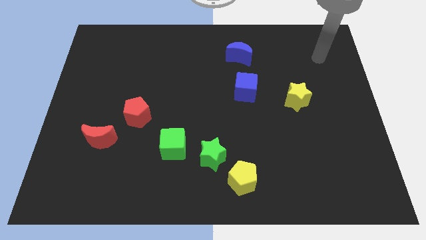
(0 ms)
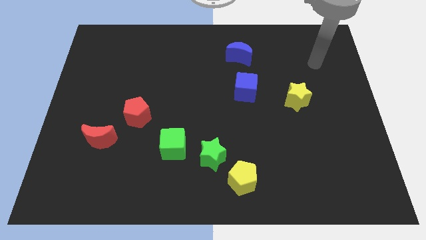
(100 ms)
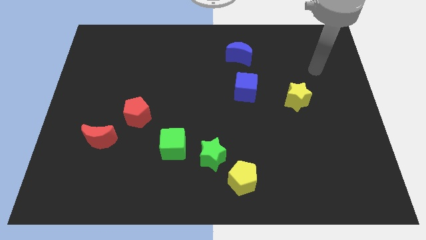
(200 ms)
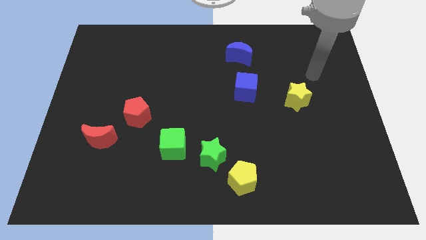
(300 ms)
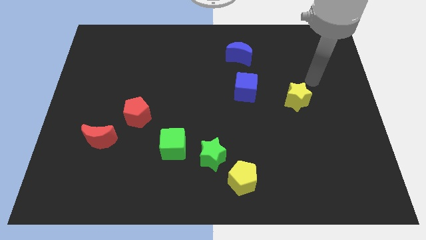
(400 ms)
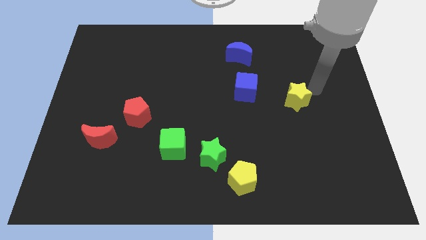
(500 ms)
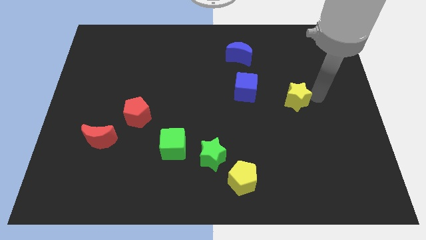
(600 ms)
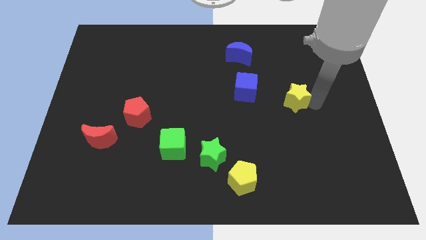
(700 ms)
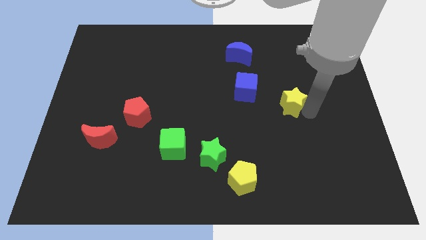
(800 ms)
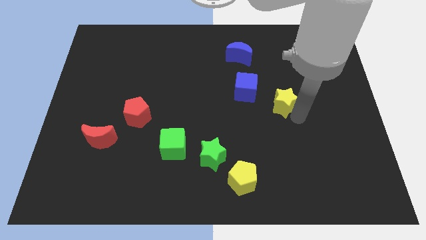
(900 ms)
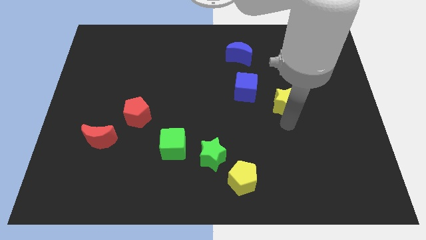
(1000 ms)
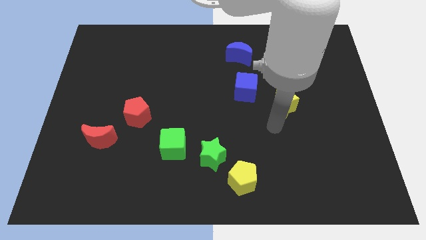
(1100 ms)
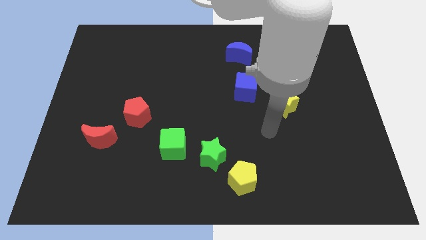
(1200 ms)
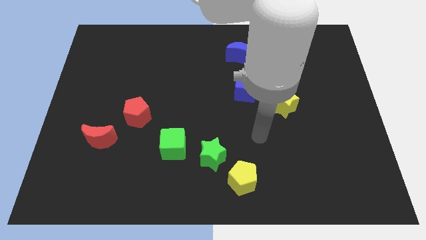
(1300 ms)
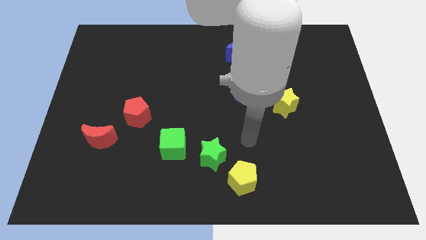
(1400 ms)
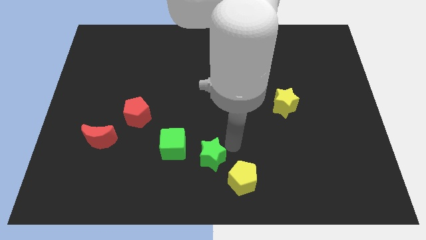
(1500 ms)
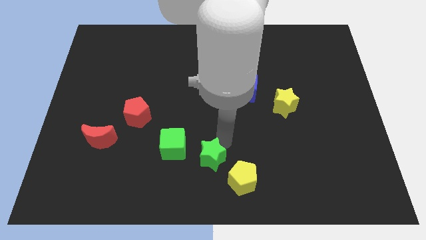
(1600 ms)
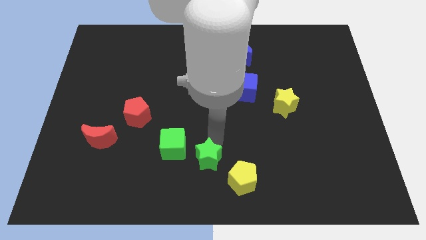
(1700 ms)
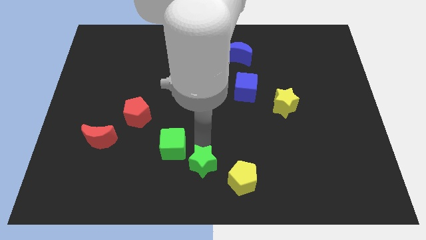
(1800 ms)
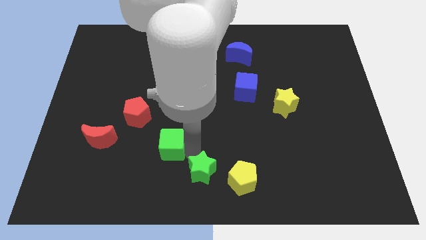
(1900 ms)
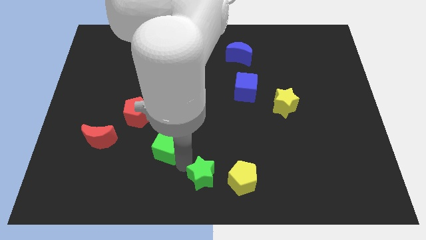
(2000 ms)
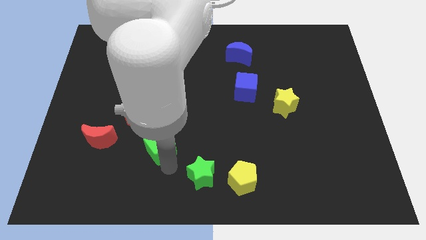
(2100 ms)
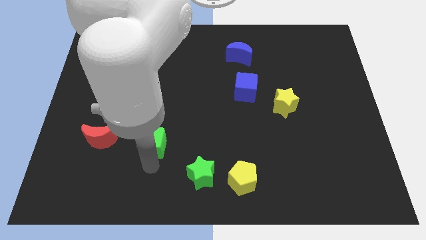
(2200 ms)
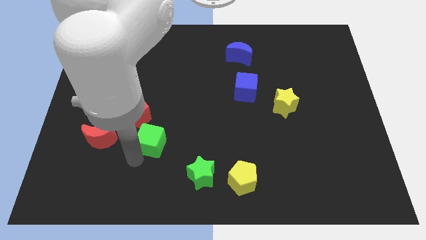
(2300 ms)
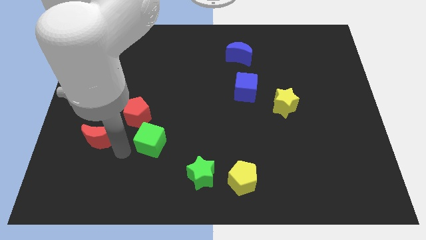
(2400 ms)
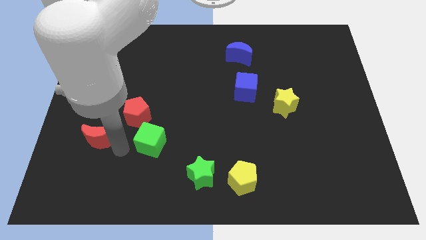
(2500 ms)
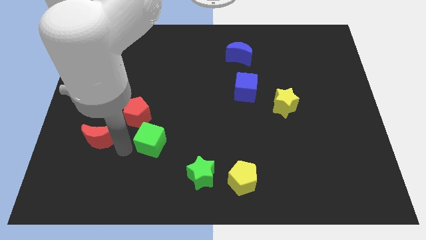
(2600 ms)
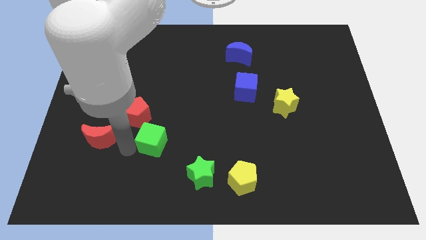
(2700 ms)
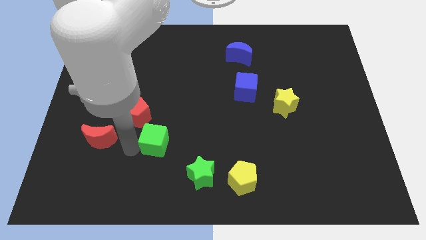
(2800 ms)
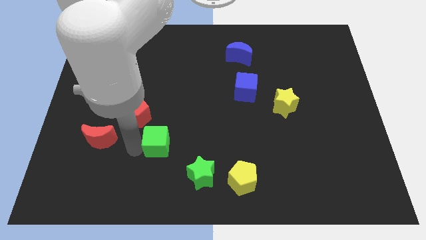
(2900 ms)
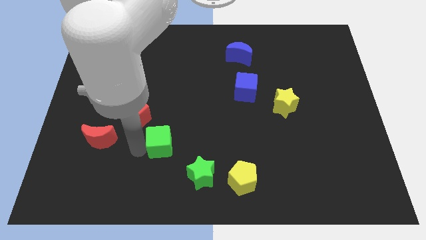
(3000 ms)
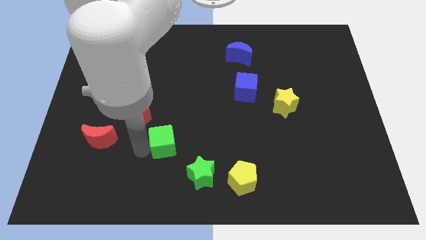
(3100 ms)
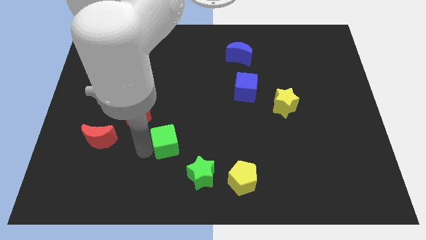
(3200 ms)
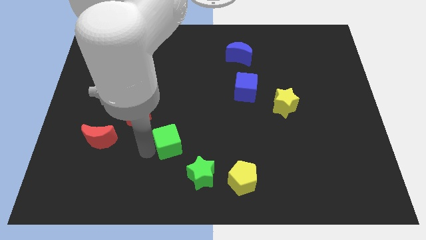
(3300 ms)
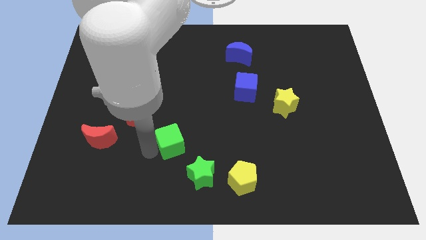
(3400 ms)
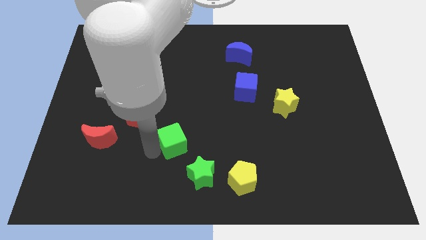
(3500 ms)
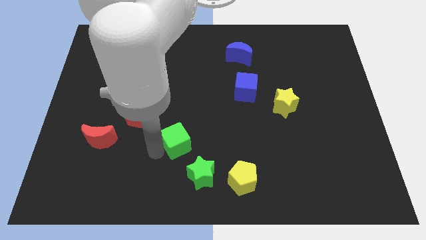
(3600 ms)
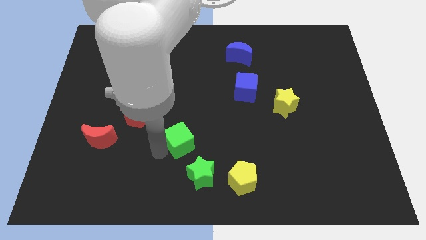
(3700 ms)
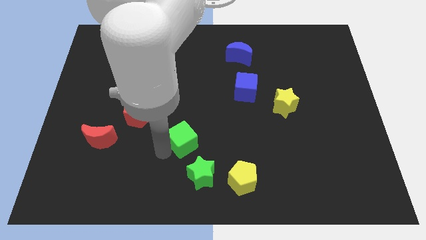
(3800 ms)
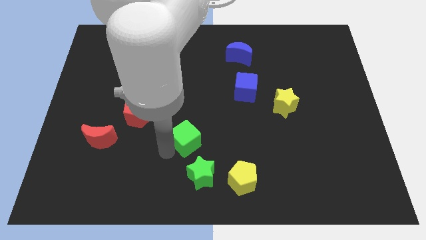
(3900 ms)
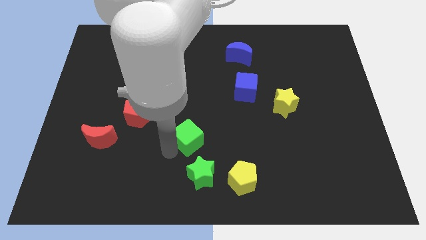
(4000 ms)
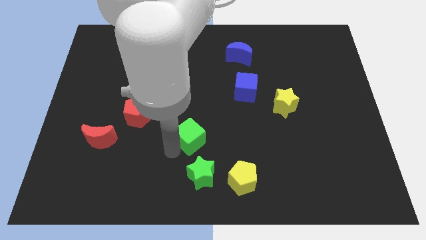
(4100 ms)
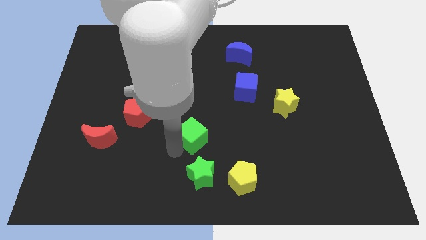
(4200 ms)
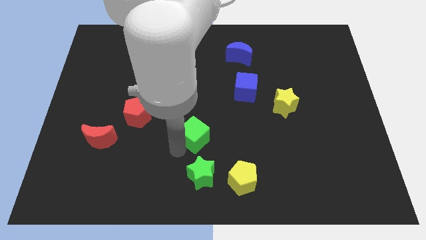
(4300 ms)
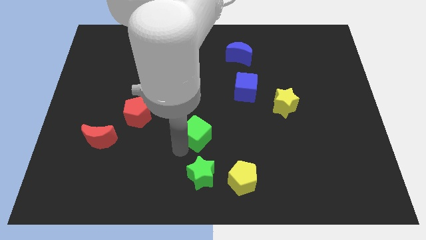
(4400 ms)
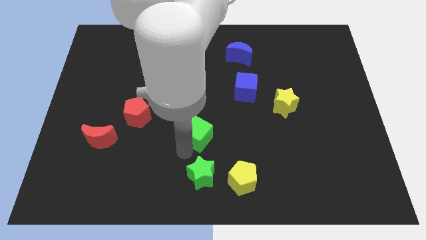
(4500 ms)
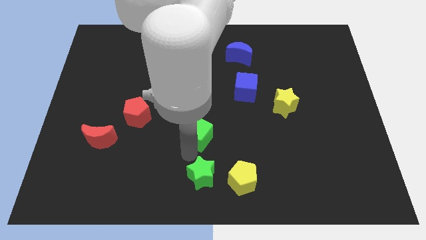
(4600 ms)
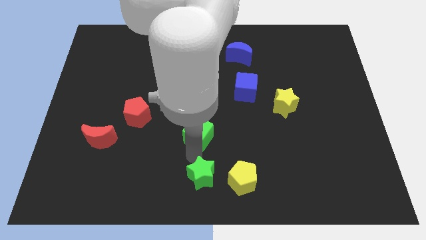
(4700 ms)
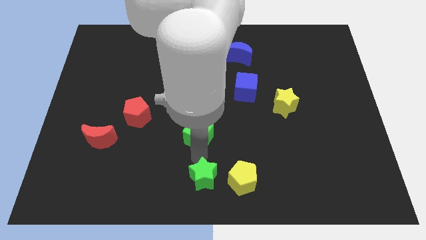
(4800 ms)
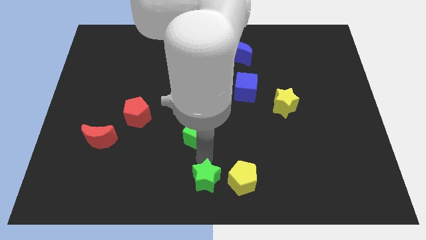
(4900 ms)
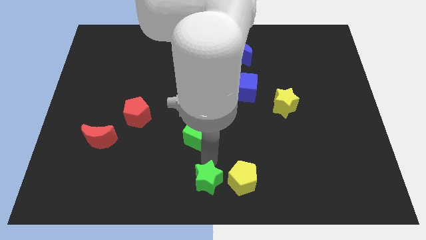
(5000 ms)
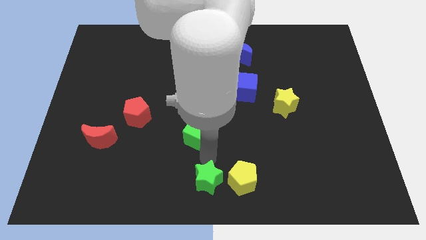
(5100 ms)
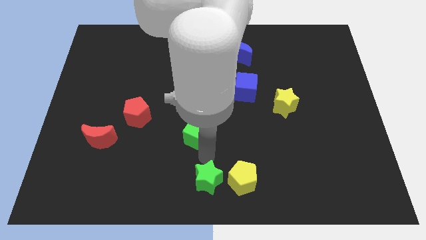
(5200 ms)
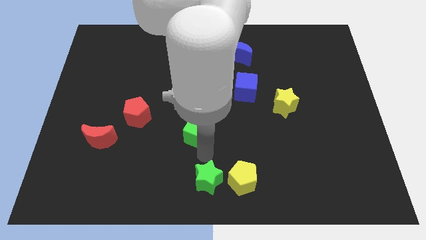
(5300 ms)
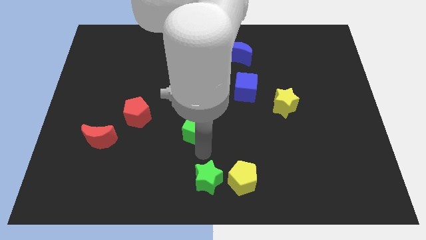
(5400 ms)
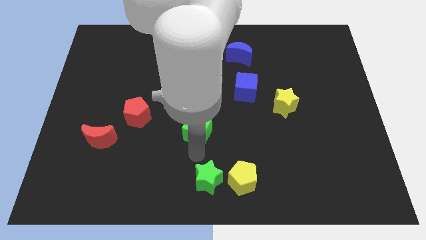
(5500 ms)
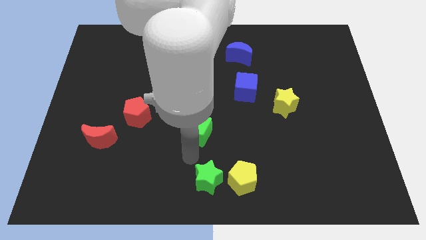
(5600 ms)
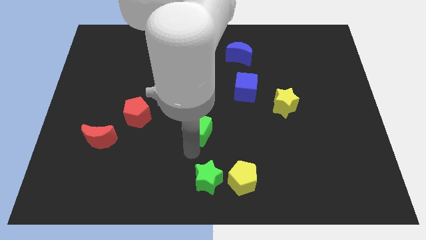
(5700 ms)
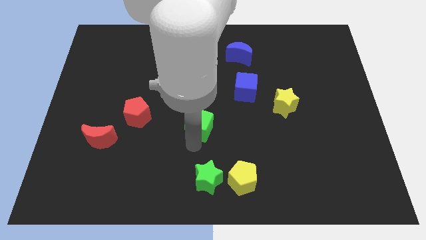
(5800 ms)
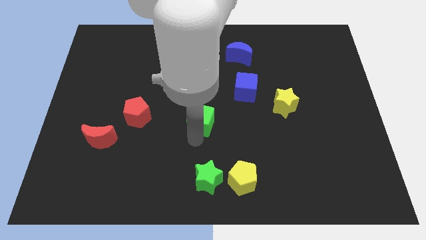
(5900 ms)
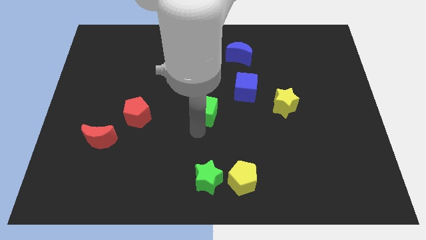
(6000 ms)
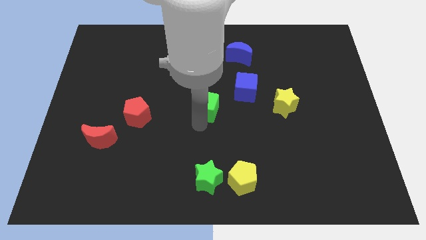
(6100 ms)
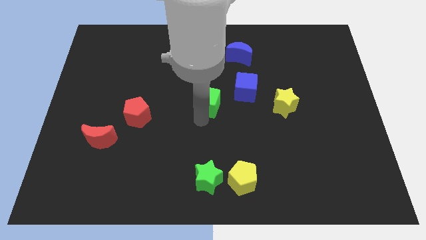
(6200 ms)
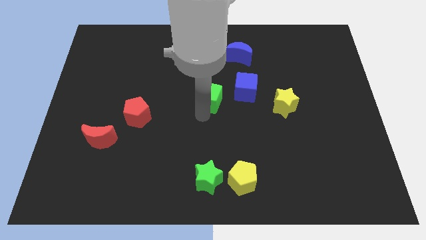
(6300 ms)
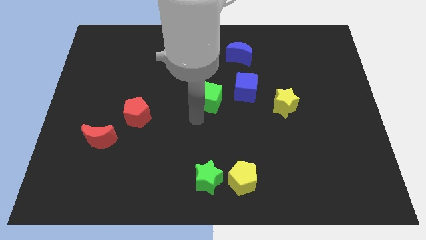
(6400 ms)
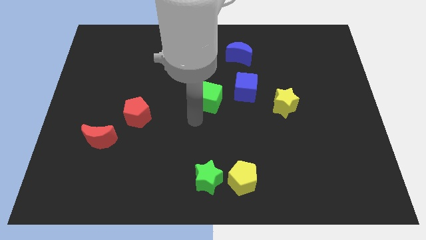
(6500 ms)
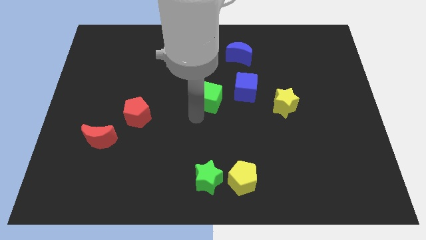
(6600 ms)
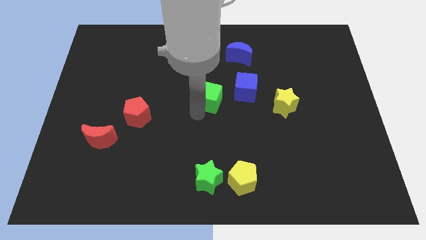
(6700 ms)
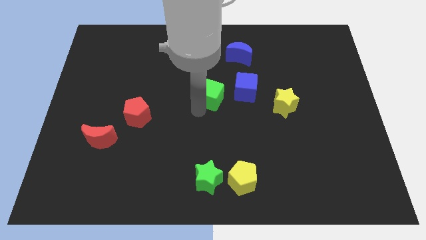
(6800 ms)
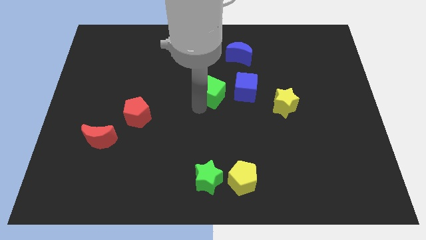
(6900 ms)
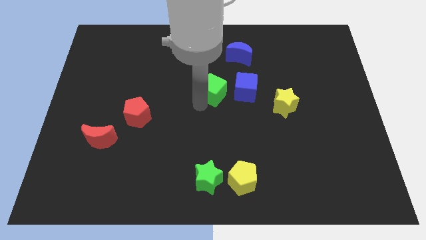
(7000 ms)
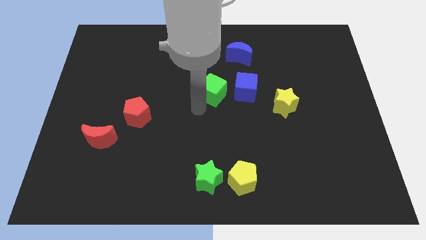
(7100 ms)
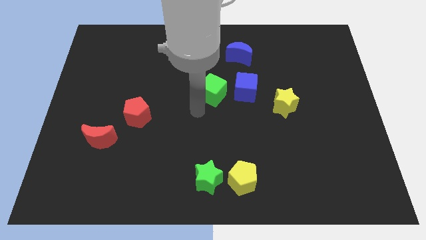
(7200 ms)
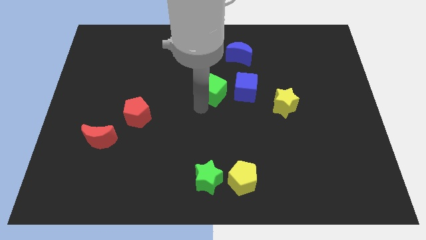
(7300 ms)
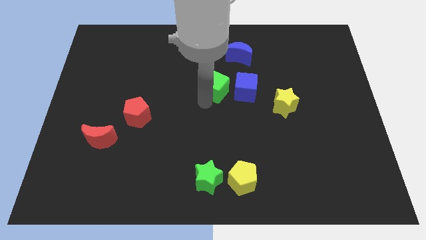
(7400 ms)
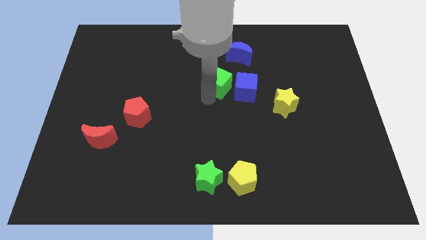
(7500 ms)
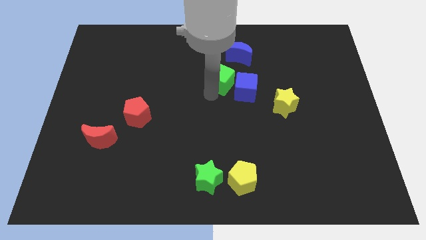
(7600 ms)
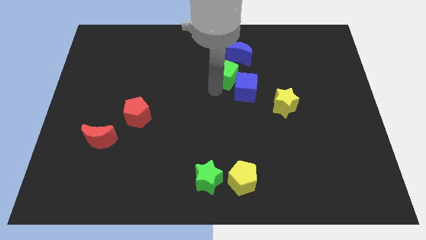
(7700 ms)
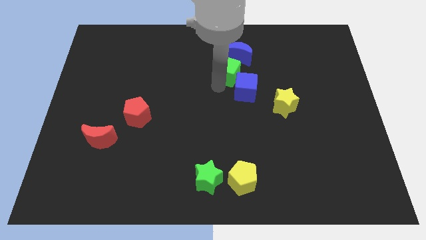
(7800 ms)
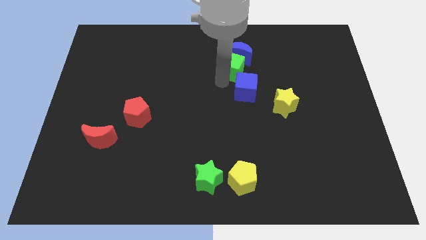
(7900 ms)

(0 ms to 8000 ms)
slide the green cube close to the blue moon
